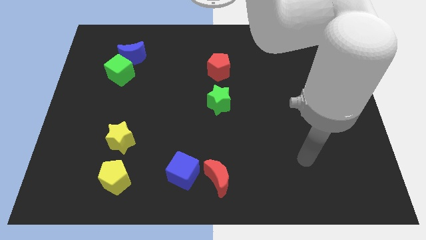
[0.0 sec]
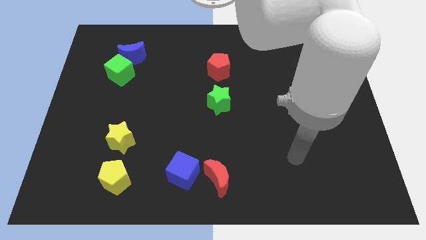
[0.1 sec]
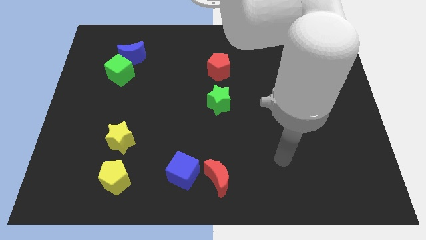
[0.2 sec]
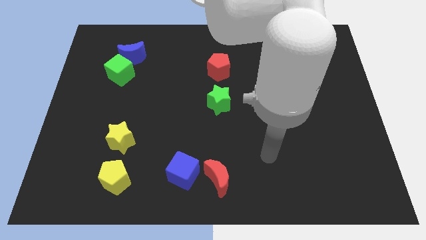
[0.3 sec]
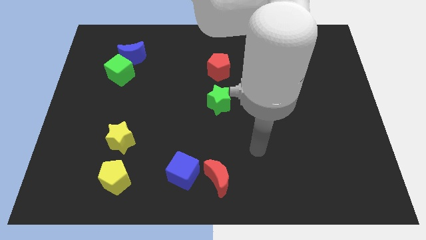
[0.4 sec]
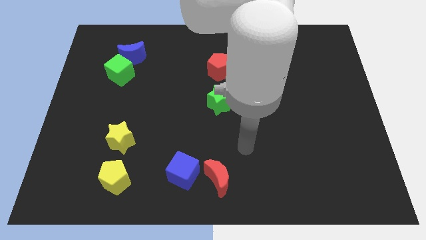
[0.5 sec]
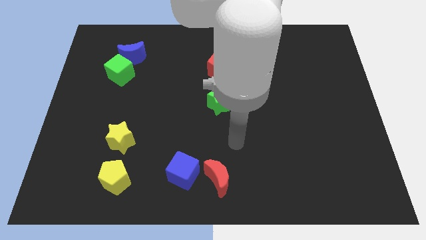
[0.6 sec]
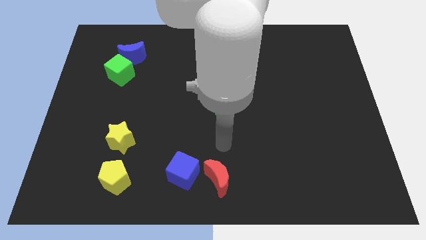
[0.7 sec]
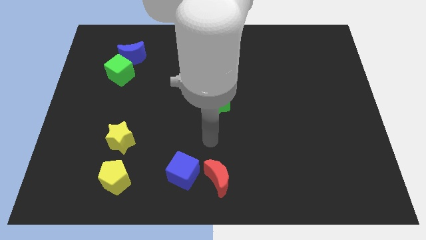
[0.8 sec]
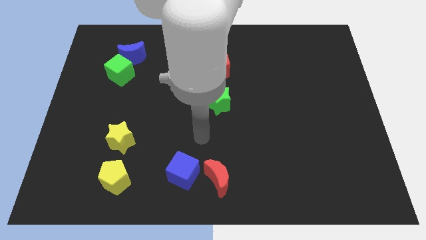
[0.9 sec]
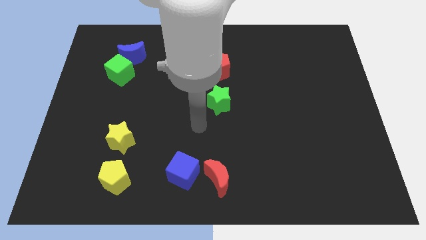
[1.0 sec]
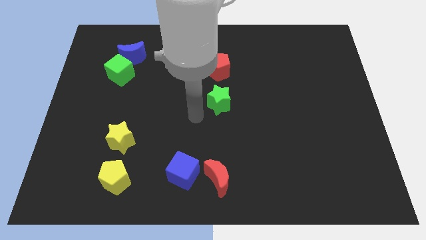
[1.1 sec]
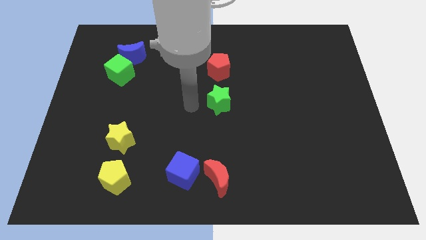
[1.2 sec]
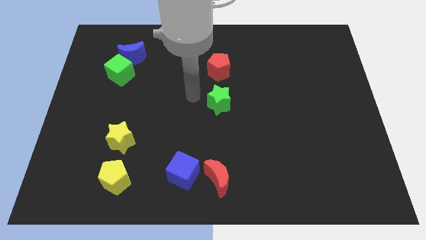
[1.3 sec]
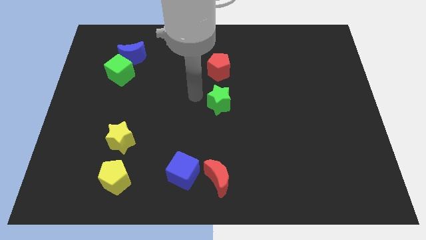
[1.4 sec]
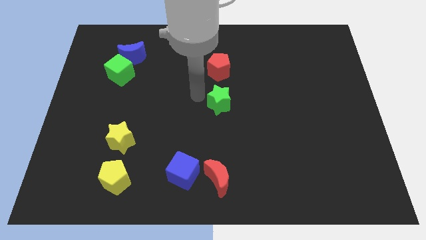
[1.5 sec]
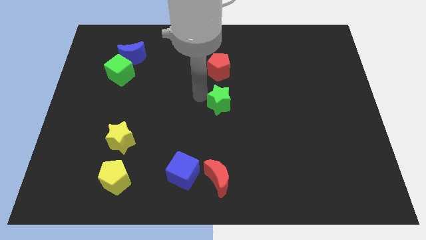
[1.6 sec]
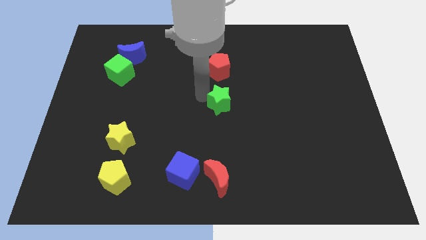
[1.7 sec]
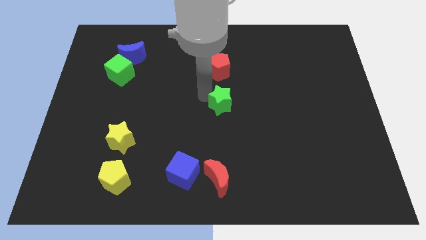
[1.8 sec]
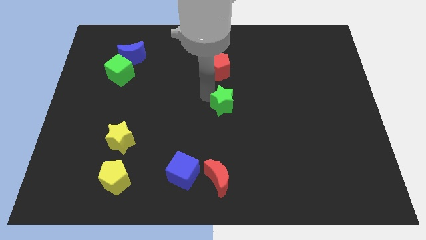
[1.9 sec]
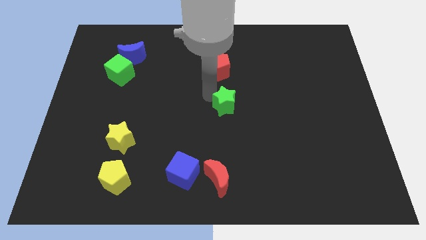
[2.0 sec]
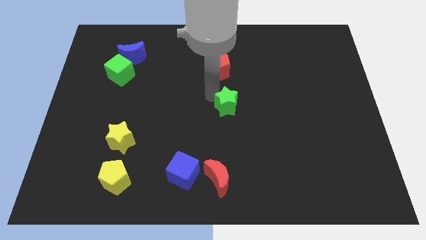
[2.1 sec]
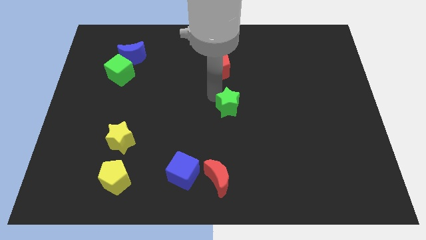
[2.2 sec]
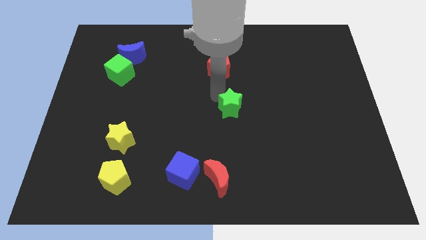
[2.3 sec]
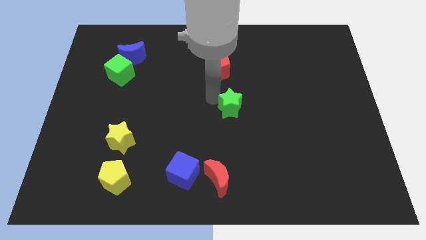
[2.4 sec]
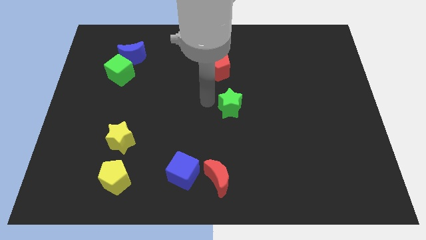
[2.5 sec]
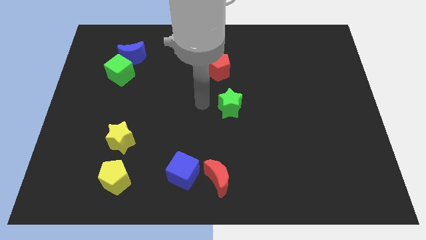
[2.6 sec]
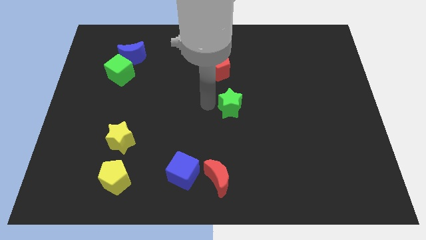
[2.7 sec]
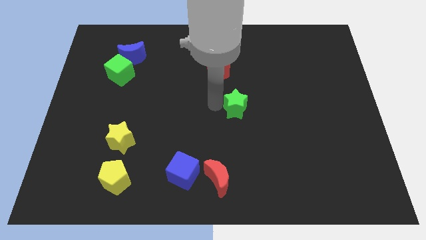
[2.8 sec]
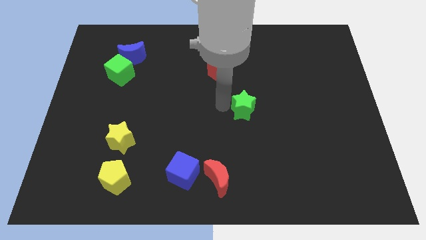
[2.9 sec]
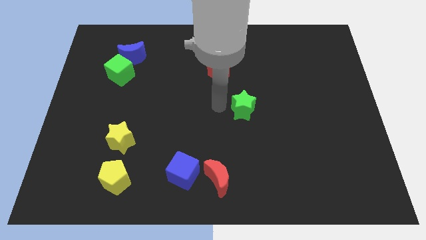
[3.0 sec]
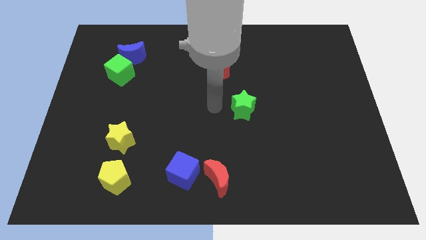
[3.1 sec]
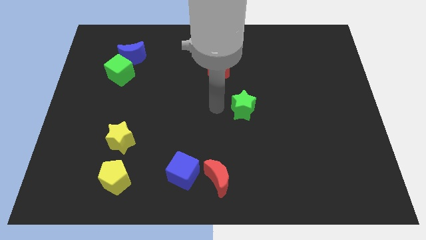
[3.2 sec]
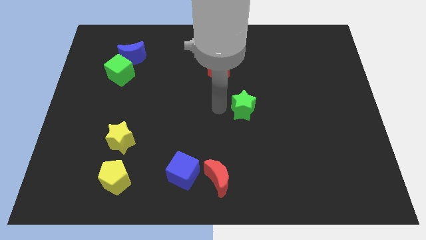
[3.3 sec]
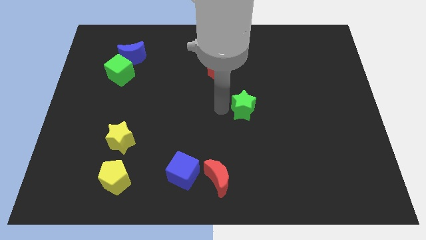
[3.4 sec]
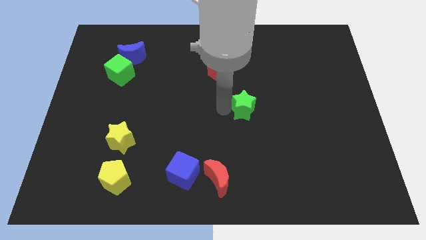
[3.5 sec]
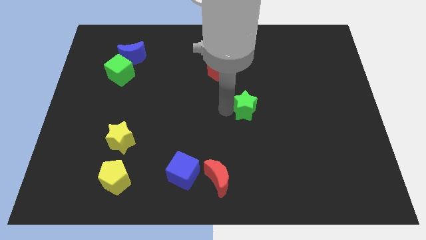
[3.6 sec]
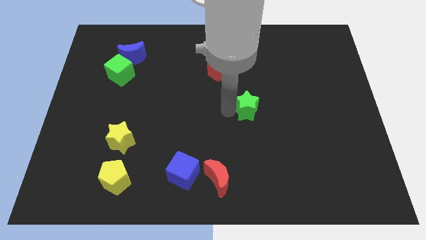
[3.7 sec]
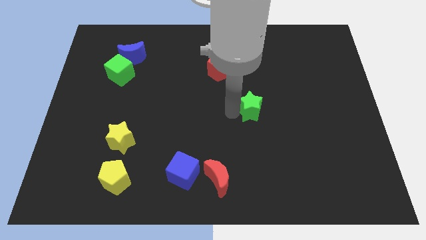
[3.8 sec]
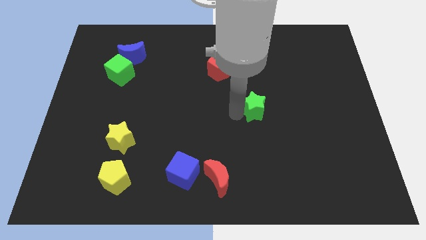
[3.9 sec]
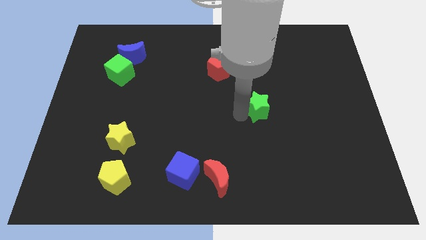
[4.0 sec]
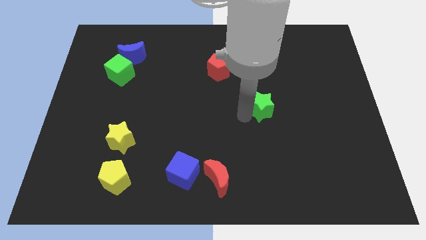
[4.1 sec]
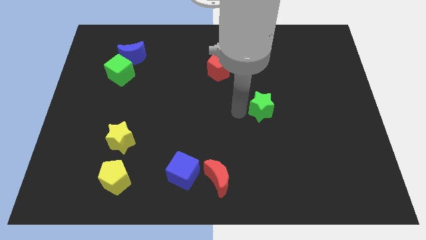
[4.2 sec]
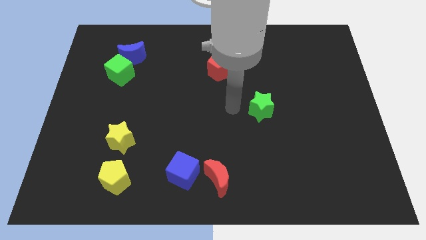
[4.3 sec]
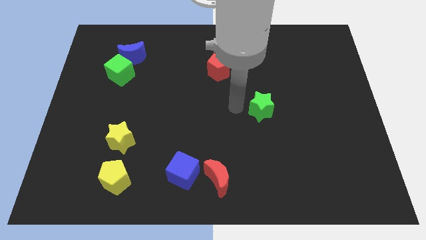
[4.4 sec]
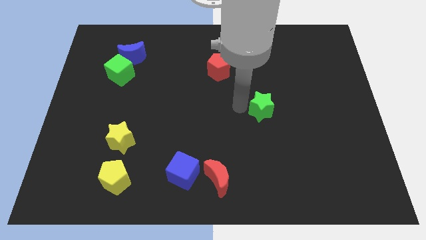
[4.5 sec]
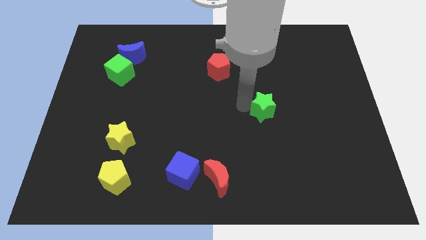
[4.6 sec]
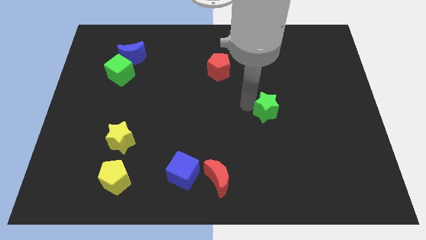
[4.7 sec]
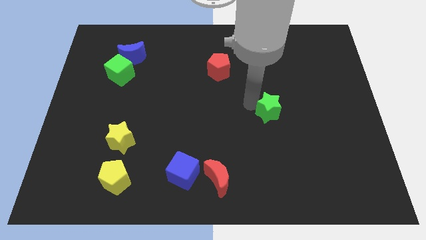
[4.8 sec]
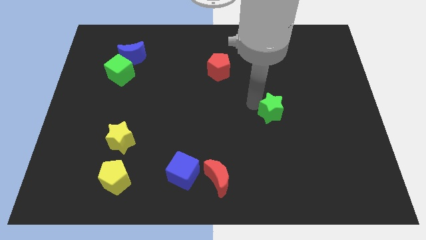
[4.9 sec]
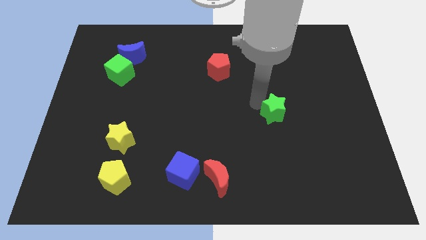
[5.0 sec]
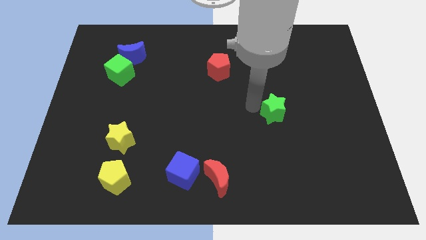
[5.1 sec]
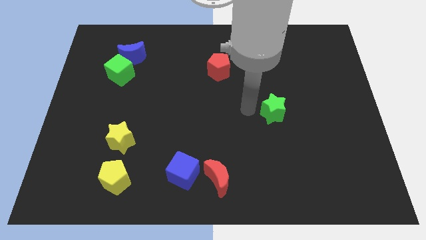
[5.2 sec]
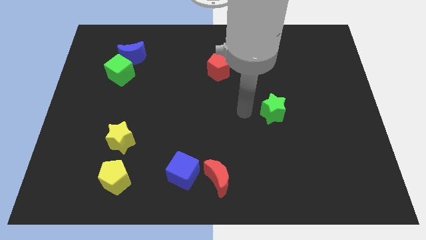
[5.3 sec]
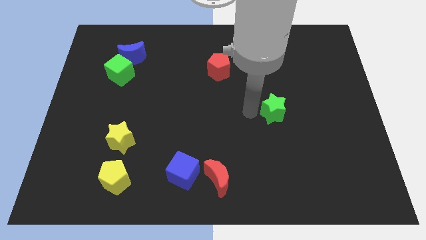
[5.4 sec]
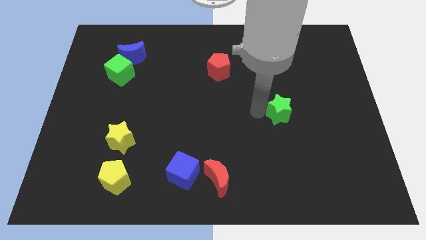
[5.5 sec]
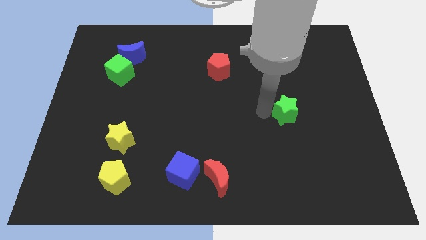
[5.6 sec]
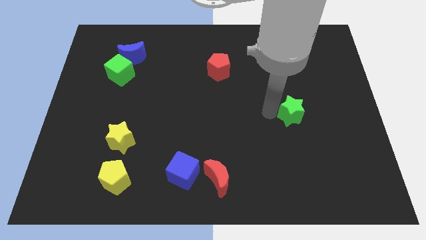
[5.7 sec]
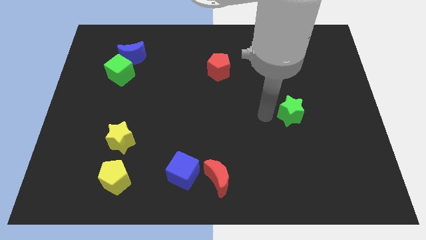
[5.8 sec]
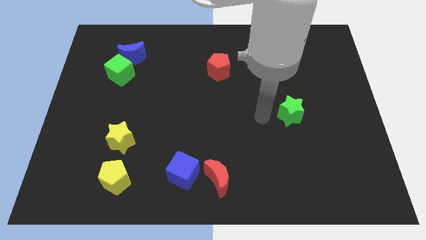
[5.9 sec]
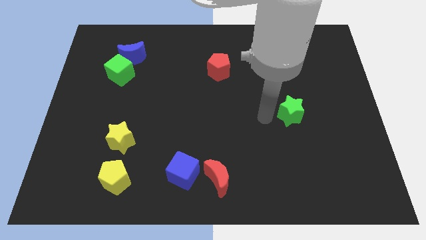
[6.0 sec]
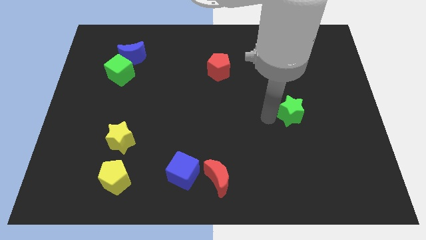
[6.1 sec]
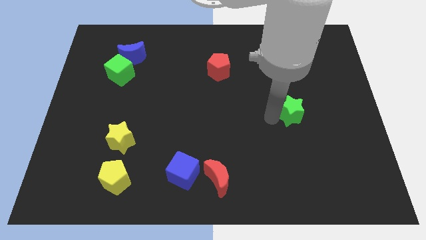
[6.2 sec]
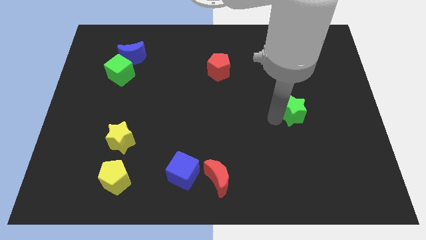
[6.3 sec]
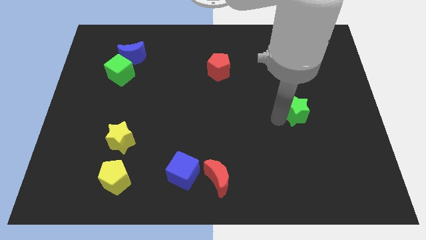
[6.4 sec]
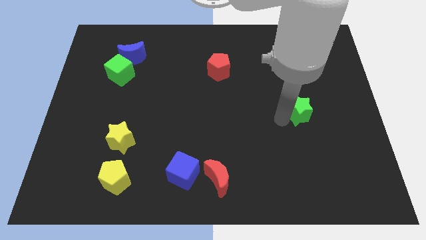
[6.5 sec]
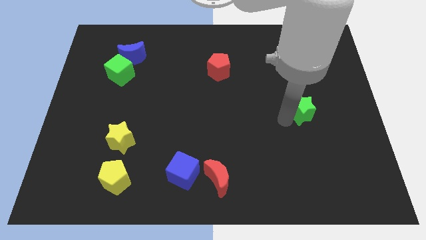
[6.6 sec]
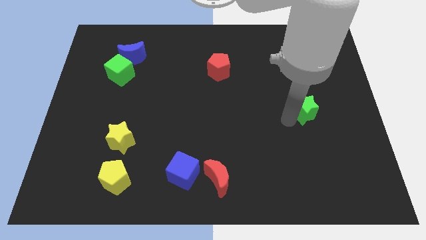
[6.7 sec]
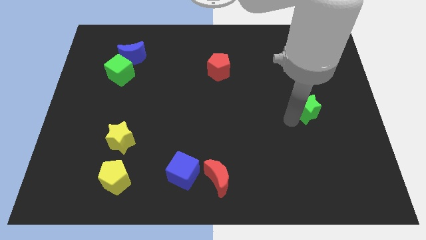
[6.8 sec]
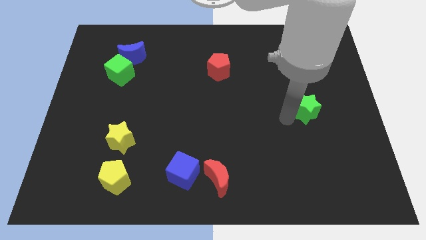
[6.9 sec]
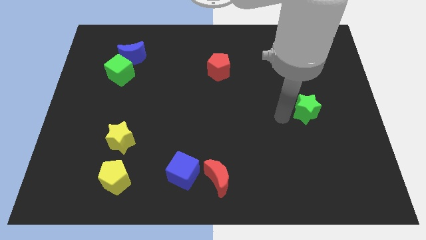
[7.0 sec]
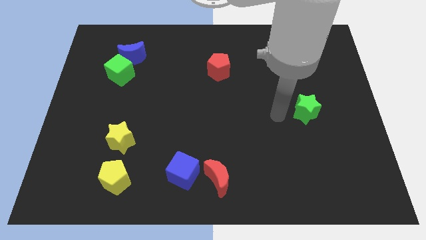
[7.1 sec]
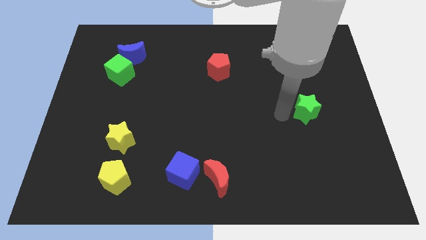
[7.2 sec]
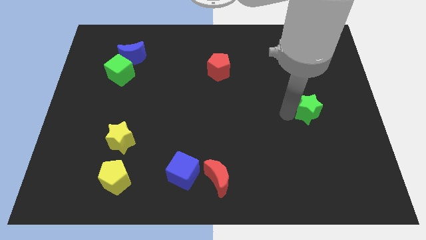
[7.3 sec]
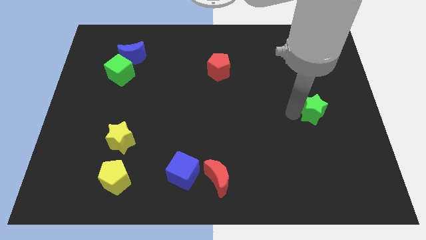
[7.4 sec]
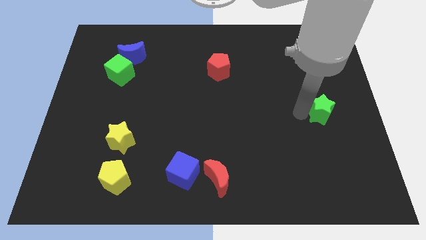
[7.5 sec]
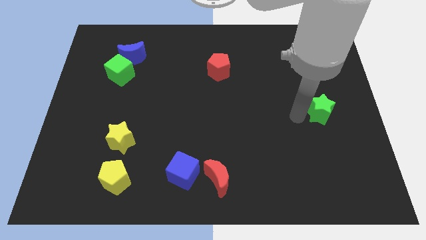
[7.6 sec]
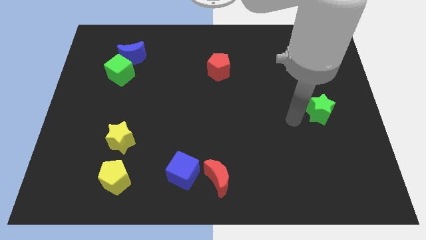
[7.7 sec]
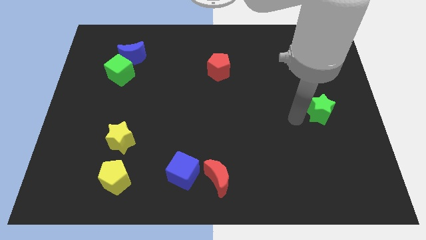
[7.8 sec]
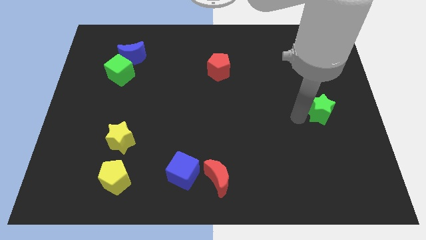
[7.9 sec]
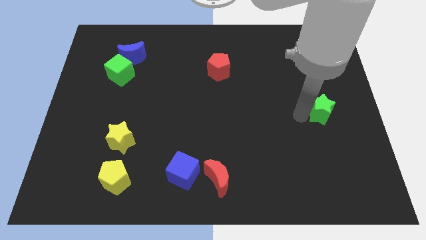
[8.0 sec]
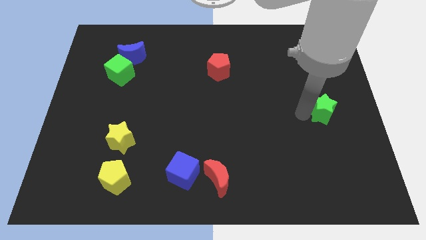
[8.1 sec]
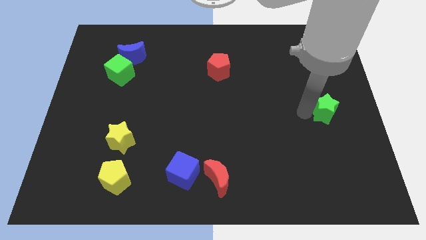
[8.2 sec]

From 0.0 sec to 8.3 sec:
put the green star to the right side
